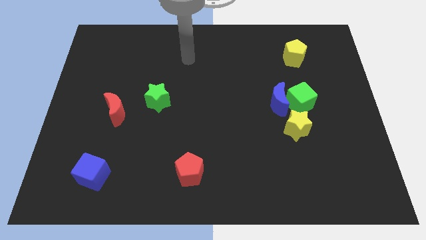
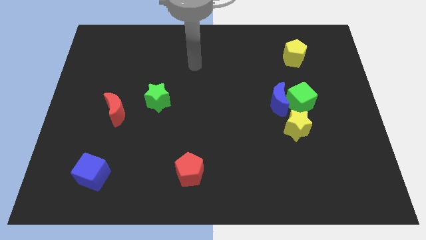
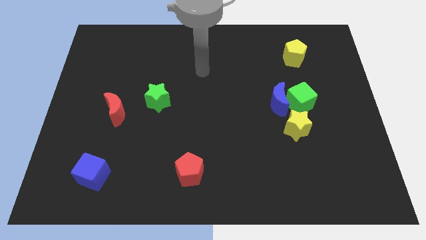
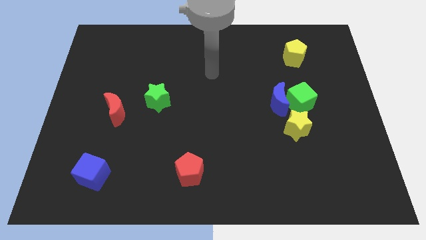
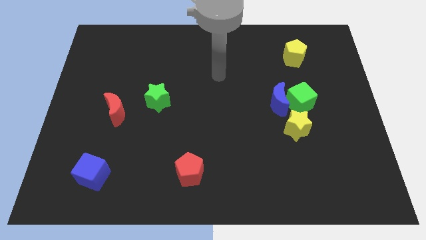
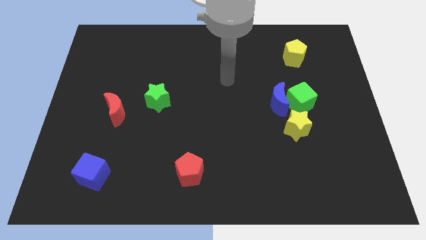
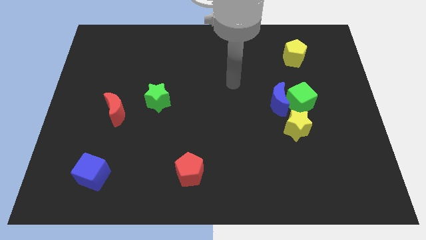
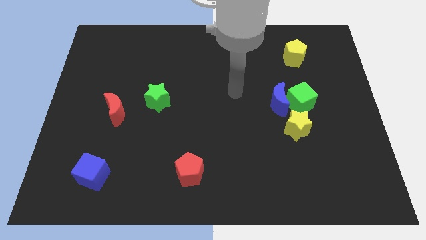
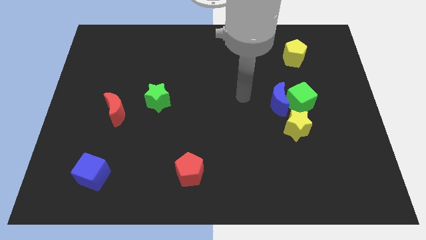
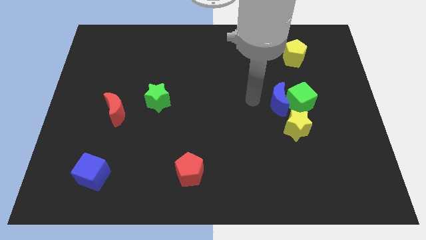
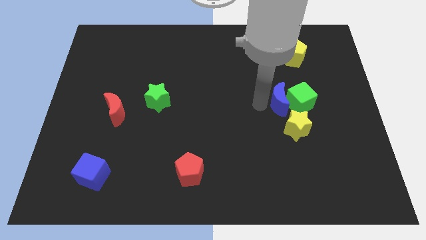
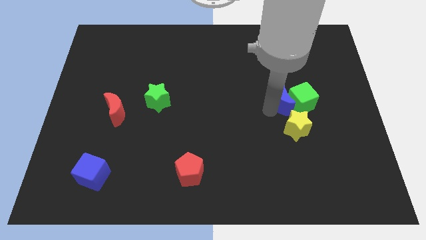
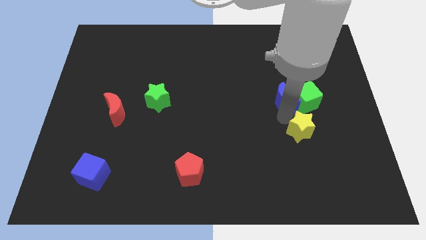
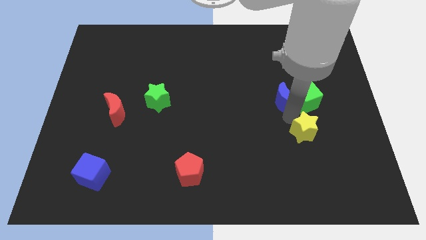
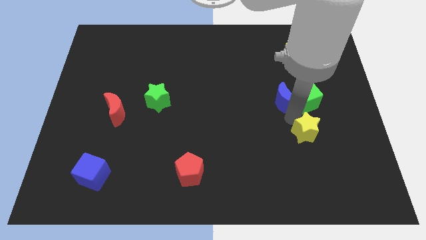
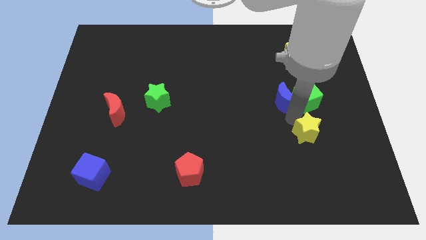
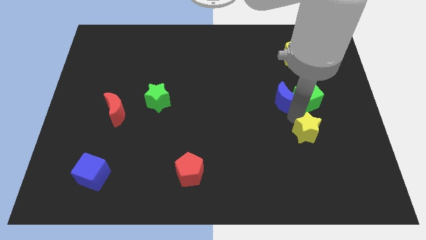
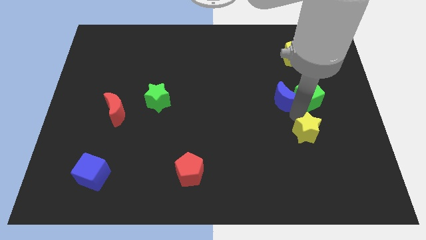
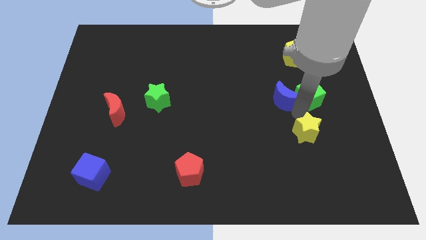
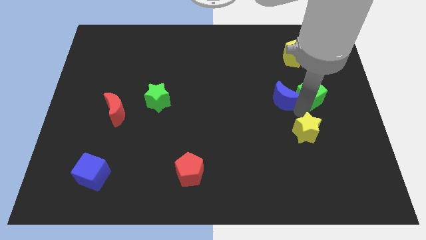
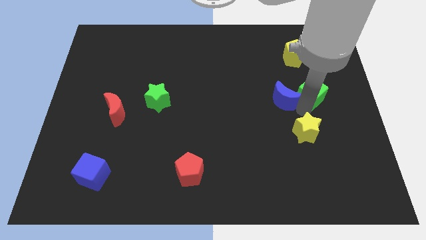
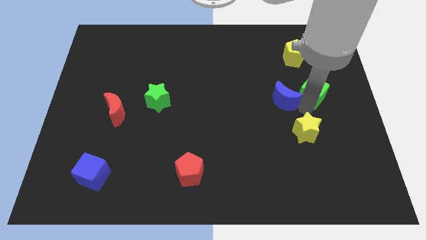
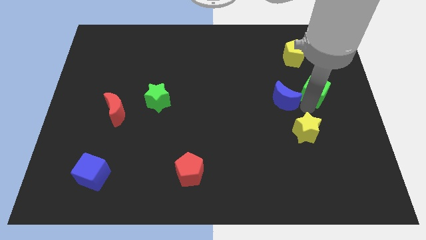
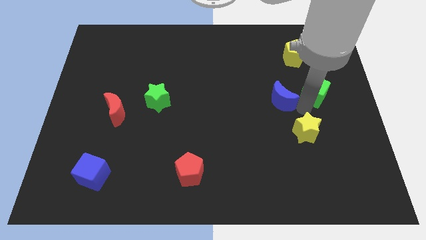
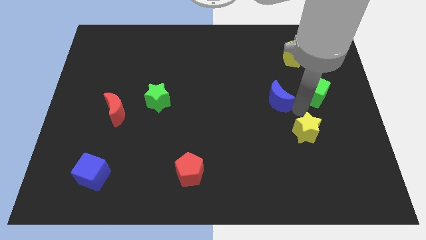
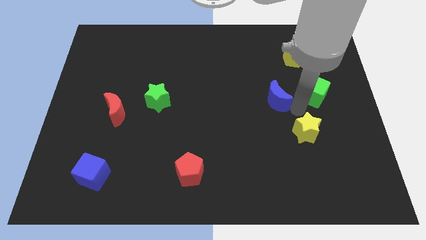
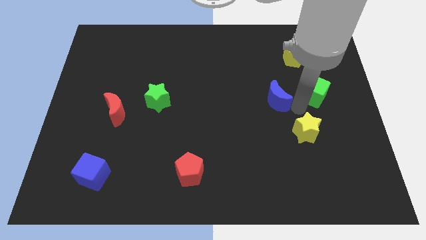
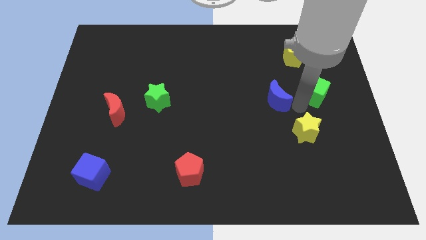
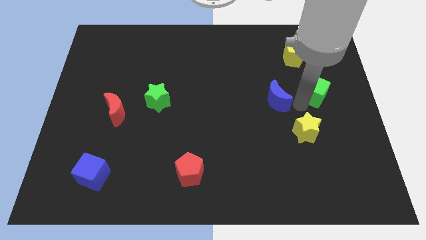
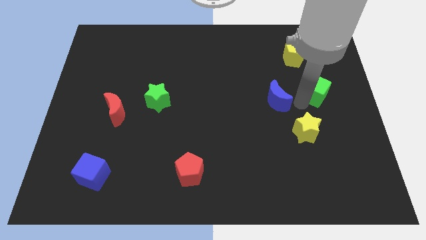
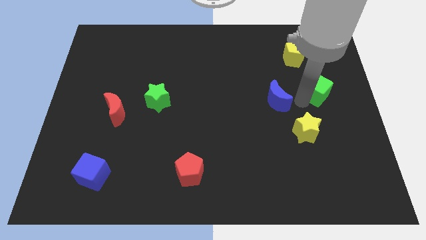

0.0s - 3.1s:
move the green cube away from the blue moon and yellow star

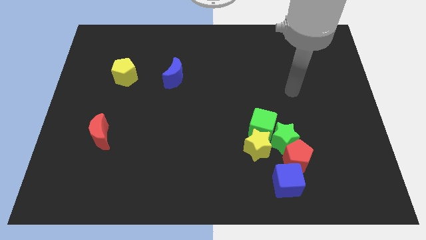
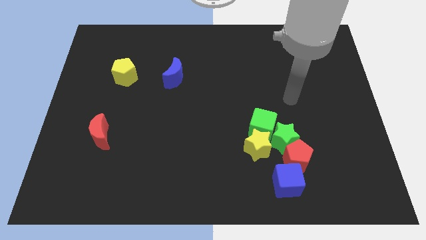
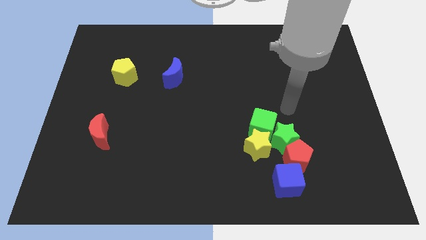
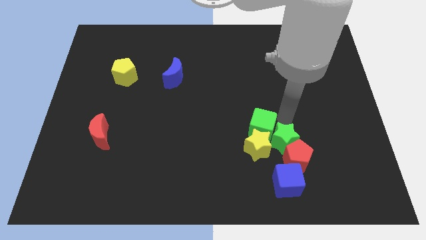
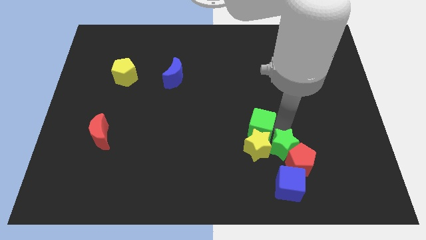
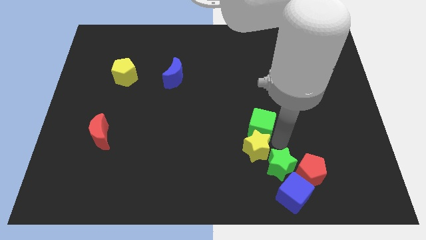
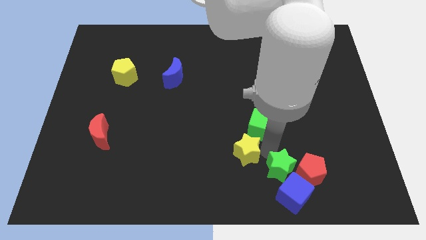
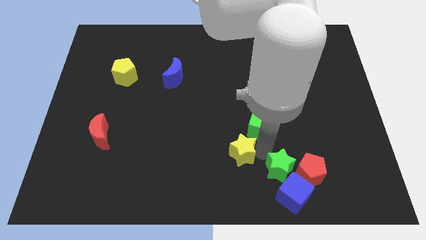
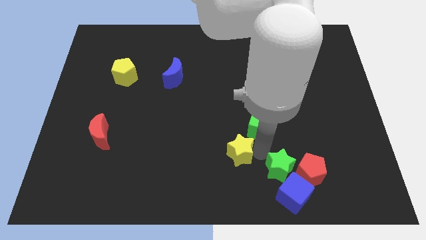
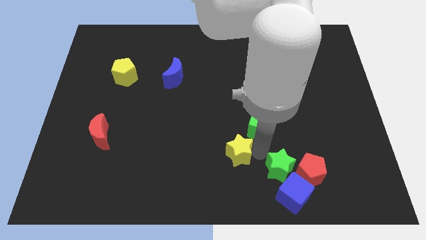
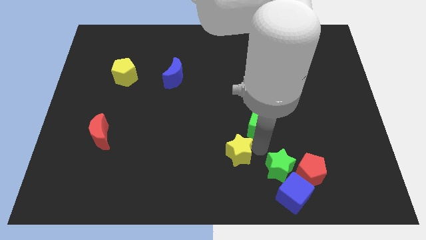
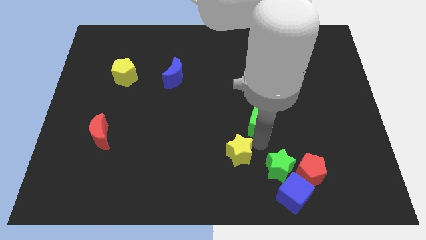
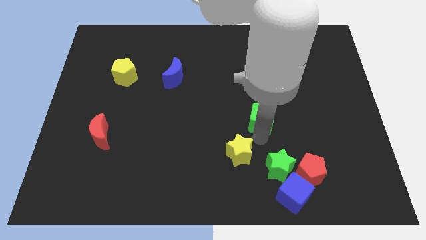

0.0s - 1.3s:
move the green cube away from the yellow star and green star

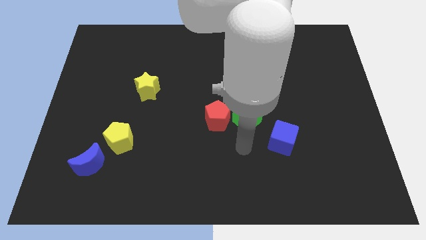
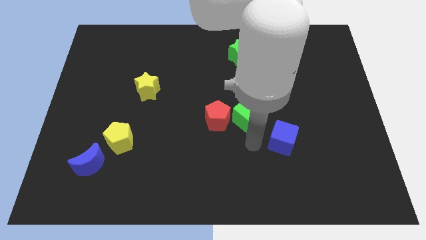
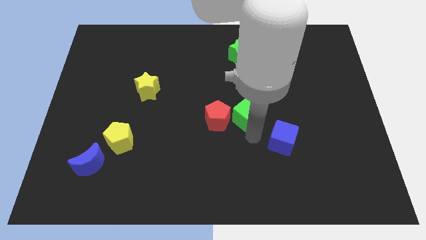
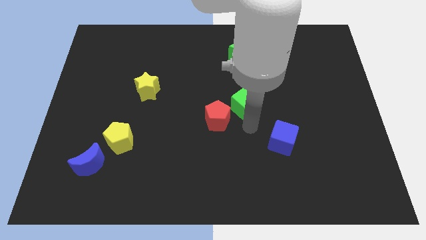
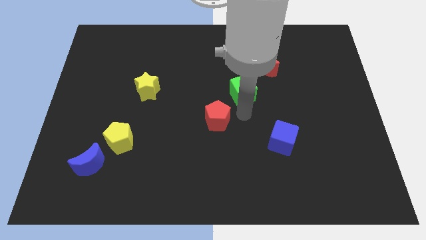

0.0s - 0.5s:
move the red pentagon away from the green cube

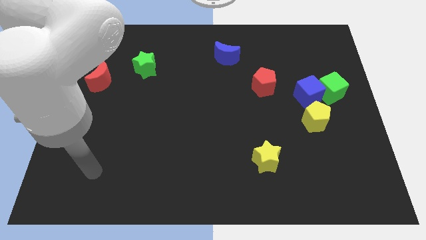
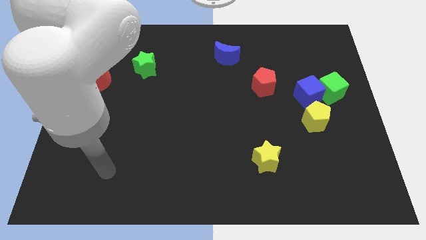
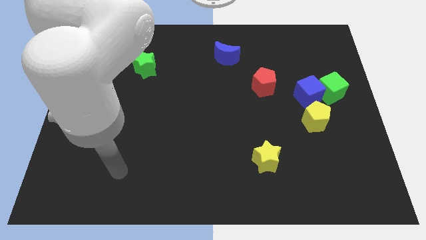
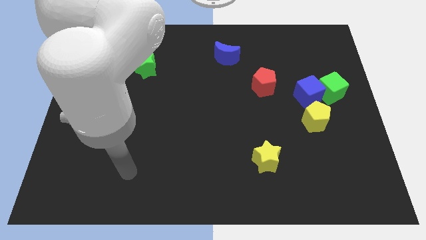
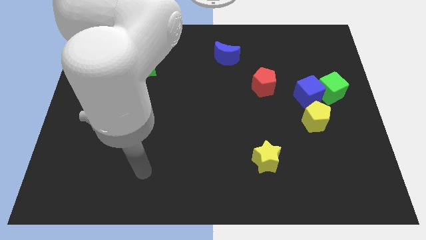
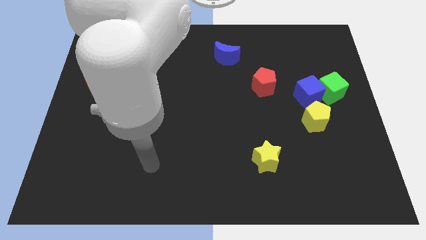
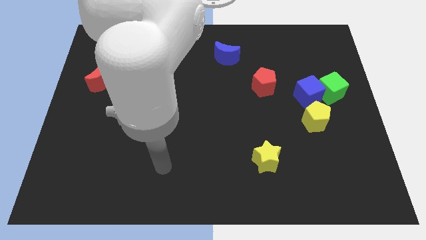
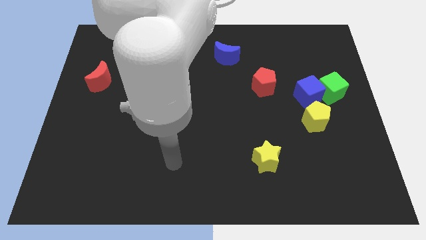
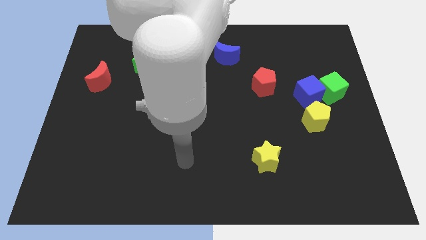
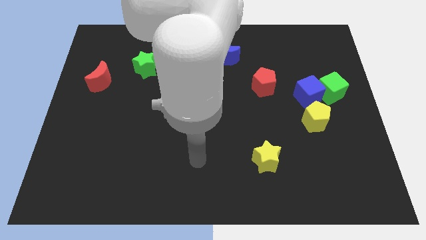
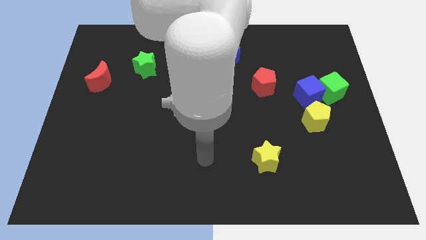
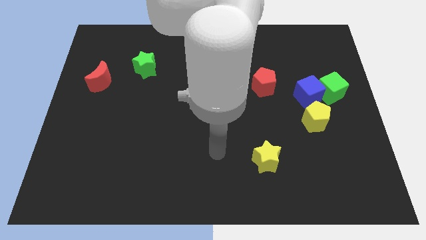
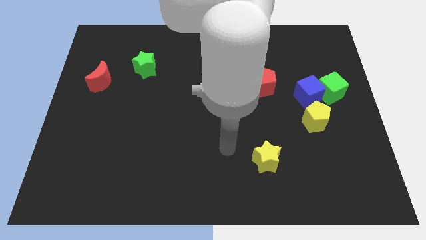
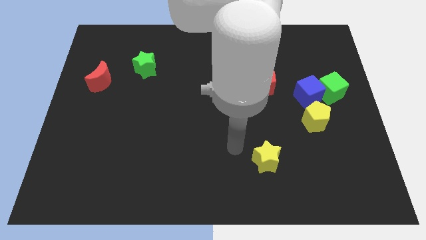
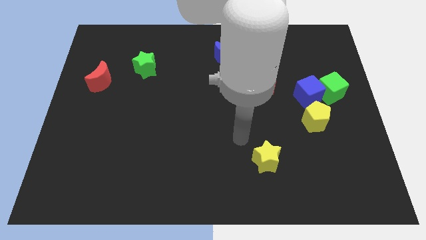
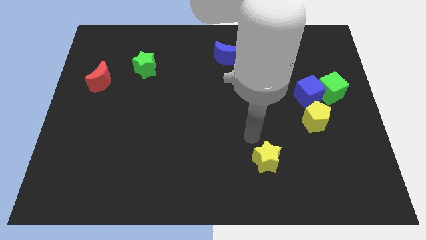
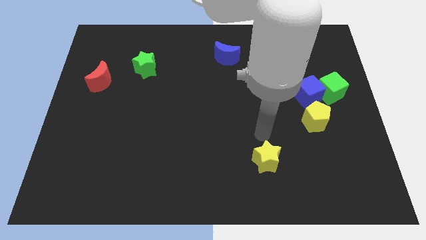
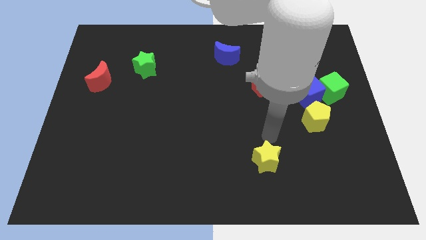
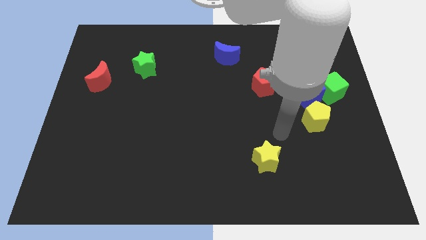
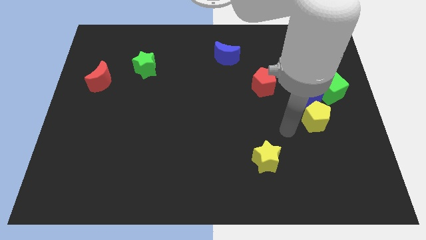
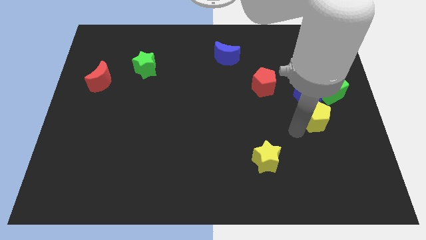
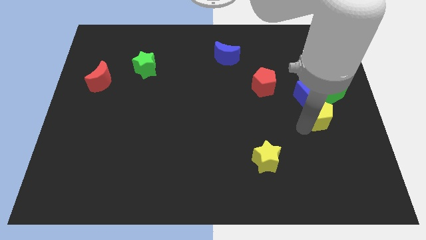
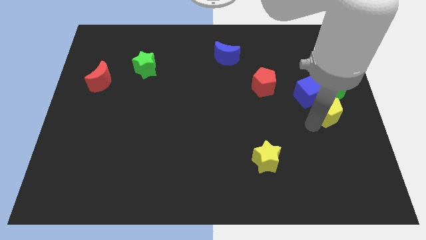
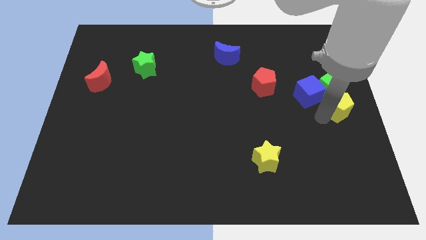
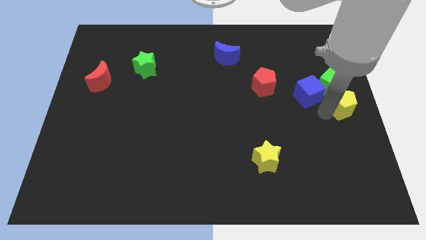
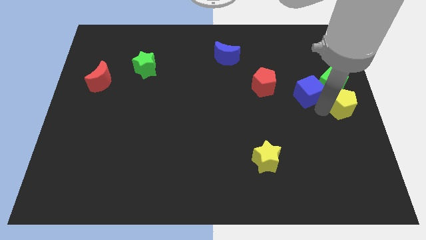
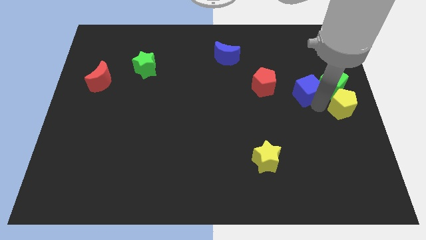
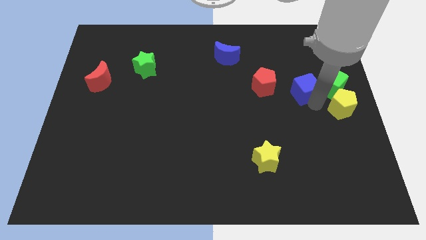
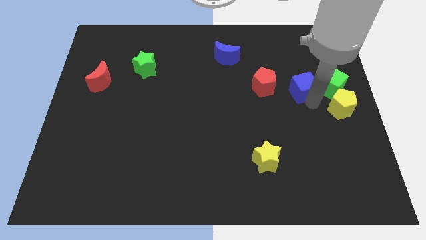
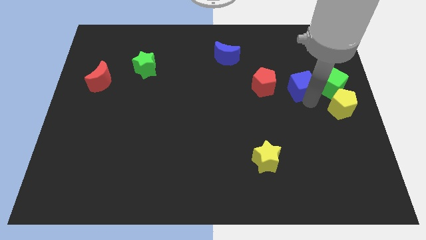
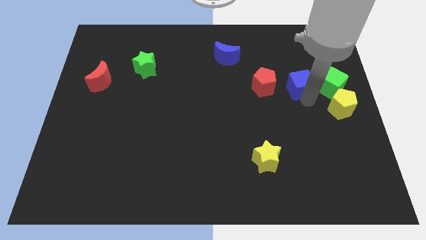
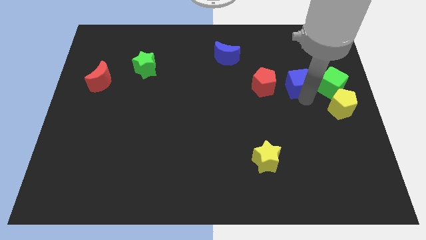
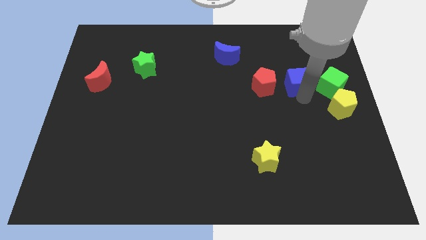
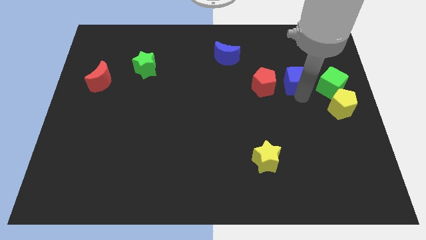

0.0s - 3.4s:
pull the blue cube apart from the green cube and yellow pentagon

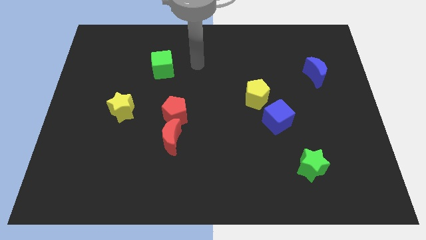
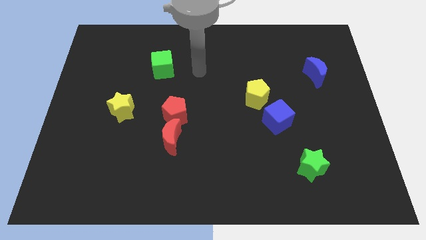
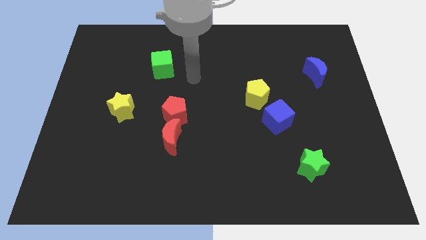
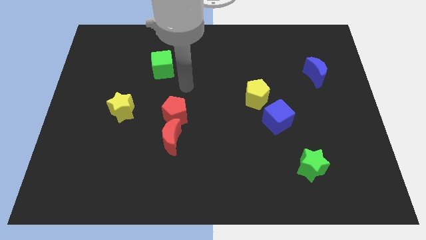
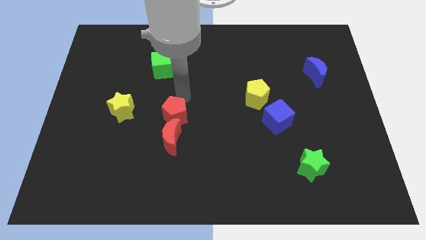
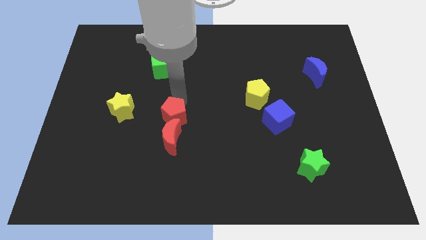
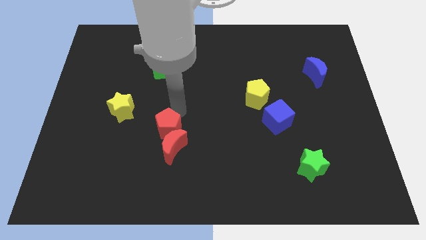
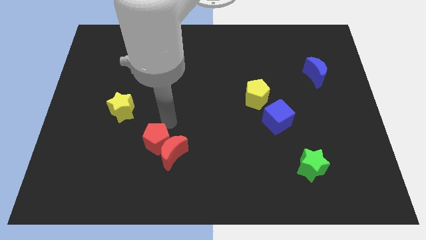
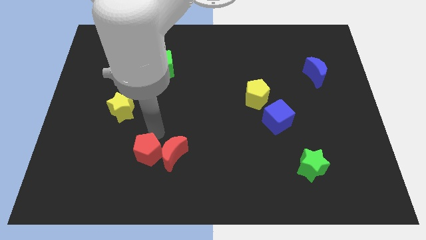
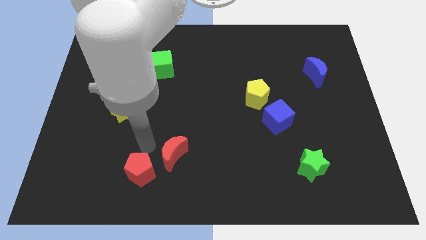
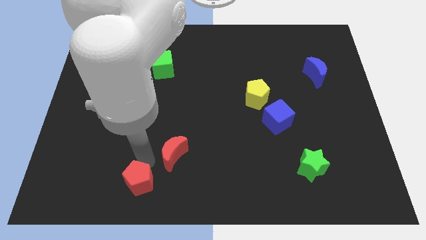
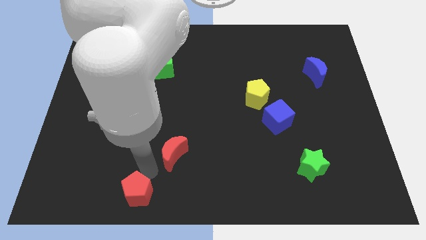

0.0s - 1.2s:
move the red moon away from the red pentagon
